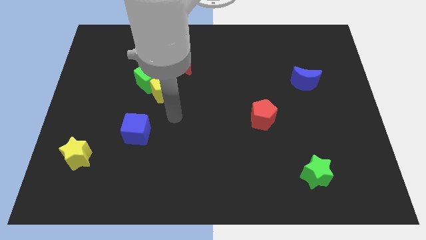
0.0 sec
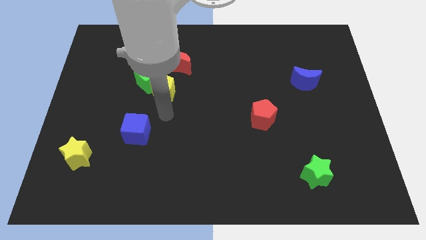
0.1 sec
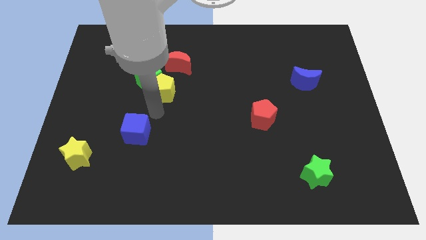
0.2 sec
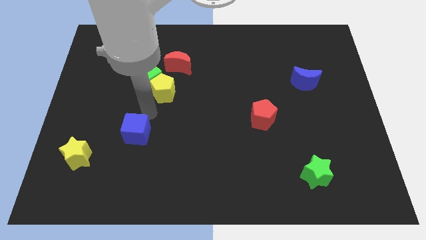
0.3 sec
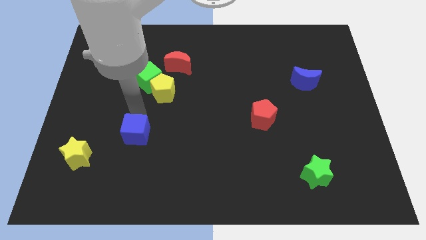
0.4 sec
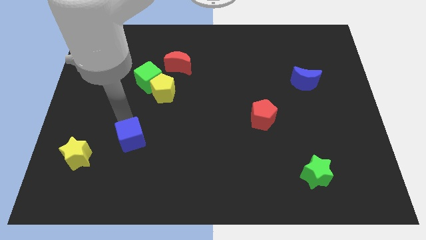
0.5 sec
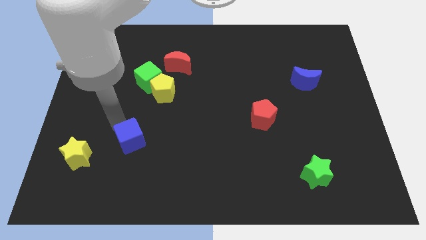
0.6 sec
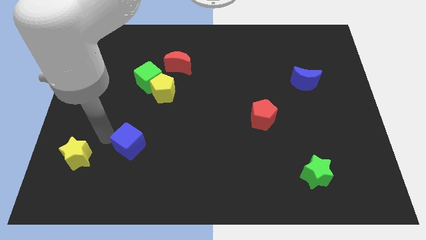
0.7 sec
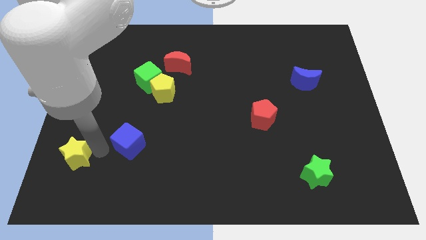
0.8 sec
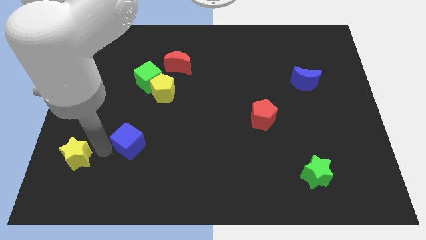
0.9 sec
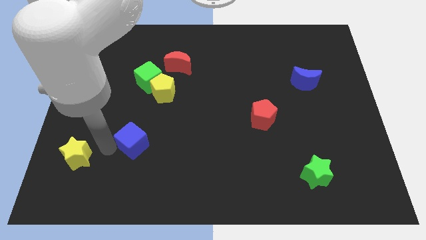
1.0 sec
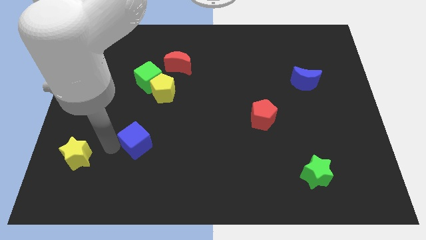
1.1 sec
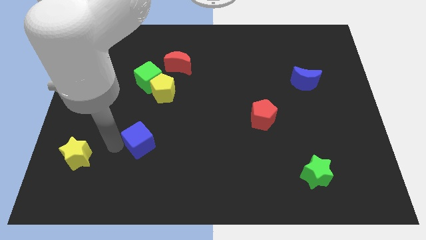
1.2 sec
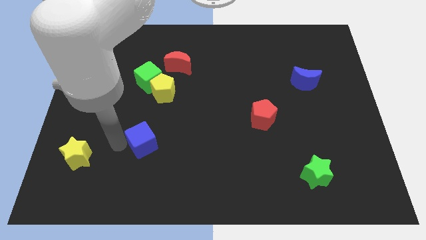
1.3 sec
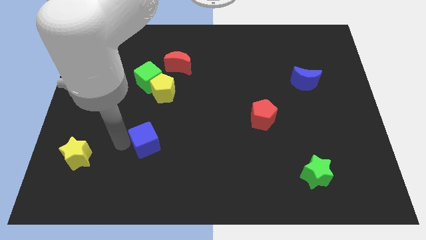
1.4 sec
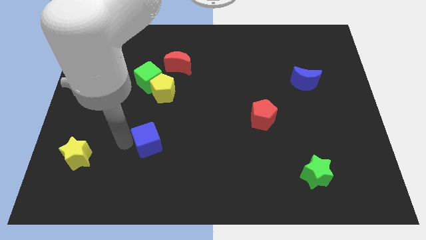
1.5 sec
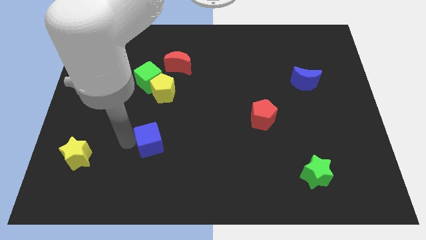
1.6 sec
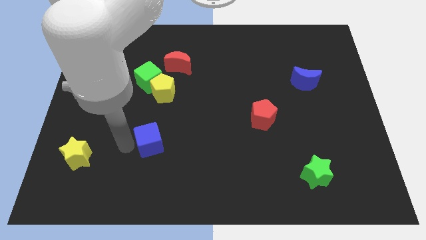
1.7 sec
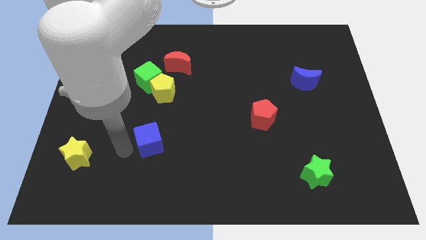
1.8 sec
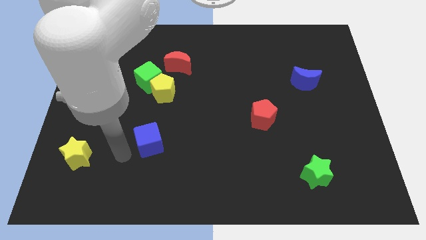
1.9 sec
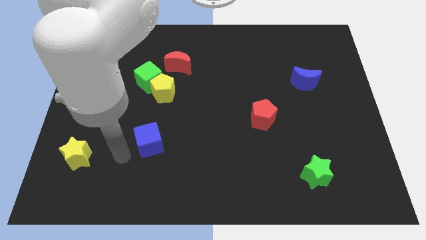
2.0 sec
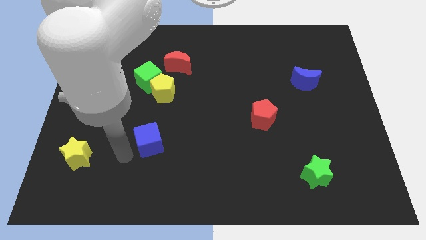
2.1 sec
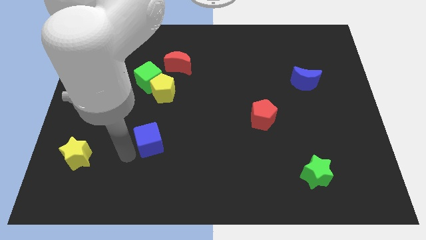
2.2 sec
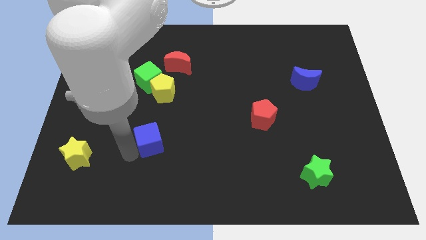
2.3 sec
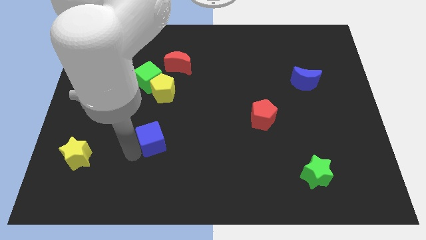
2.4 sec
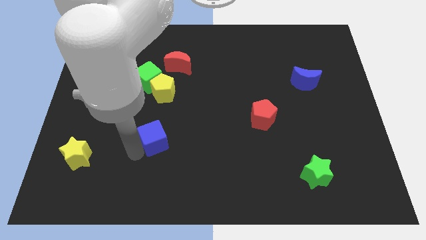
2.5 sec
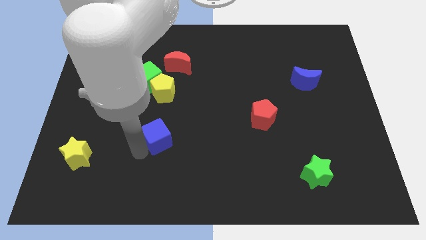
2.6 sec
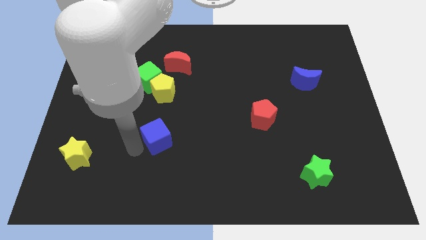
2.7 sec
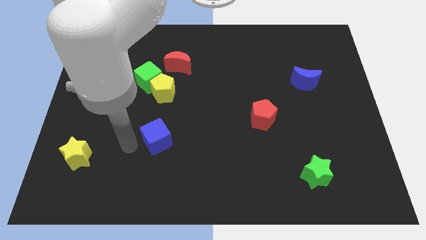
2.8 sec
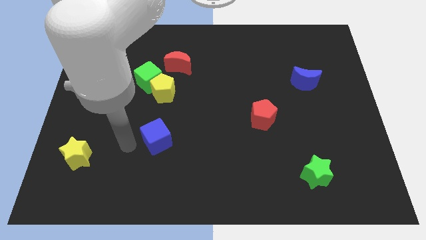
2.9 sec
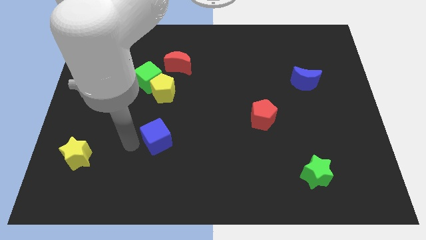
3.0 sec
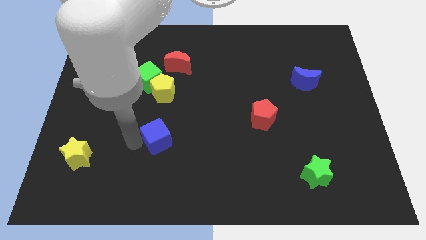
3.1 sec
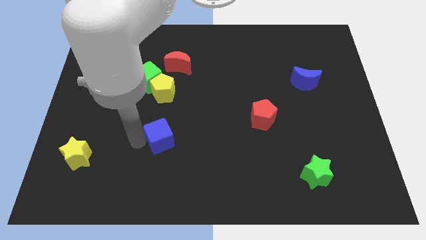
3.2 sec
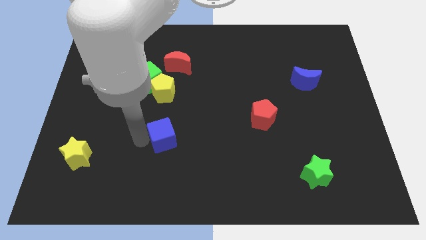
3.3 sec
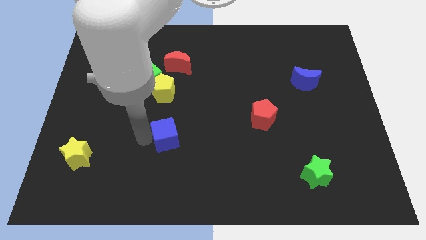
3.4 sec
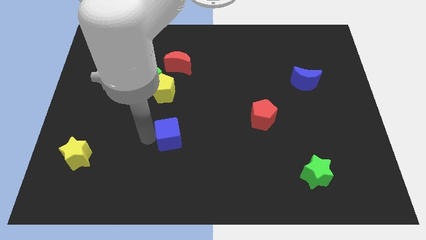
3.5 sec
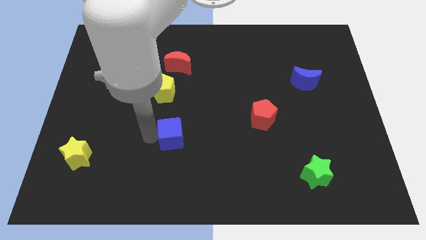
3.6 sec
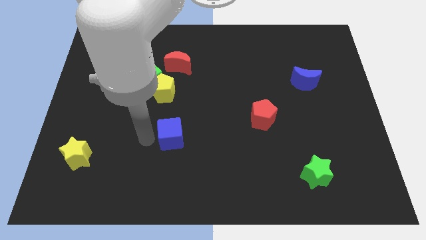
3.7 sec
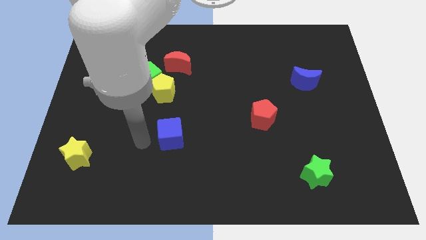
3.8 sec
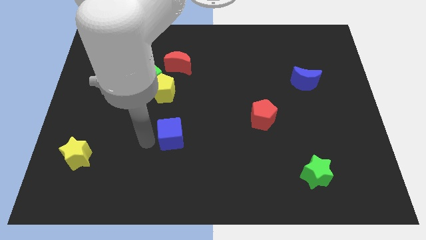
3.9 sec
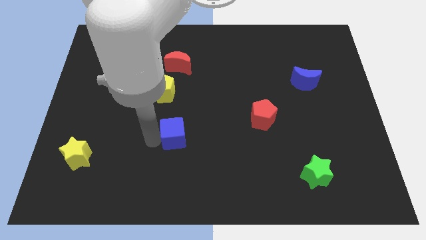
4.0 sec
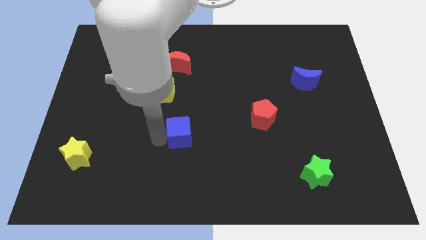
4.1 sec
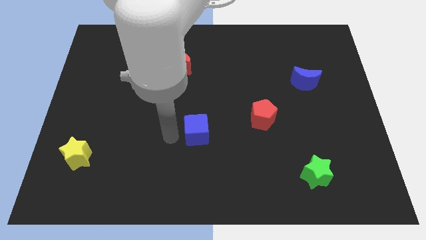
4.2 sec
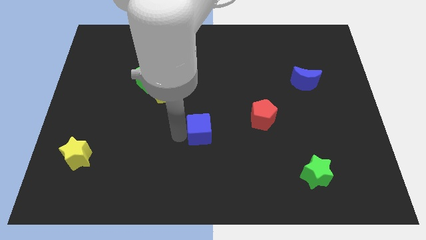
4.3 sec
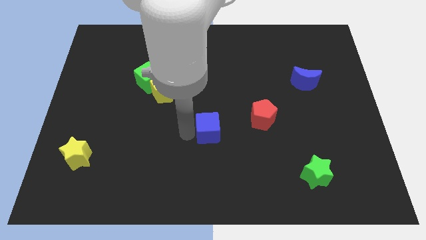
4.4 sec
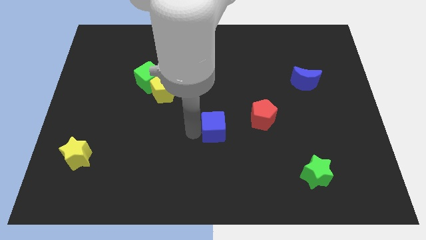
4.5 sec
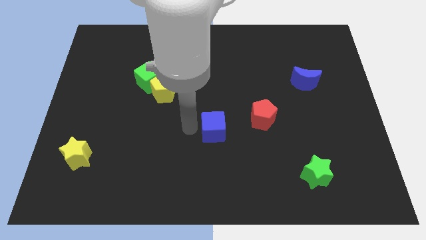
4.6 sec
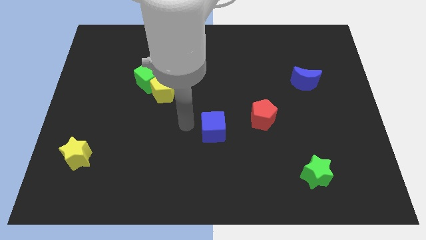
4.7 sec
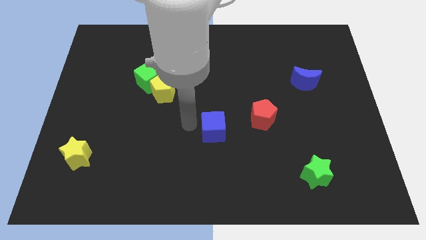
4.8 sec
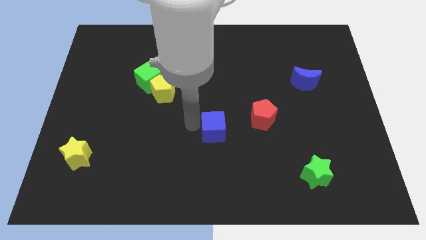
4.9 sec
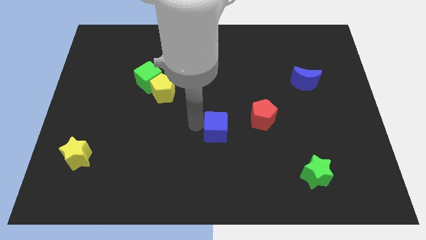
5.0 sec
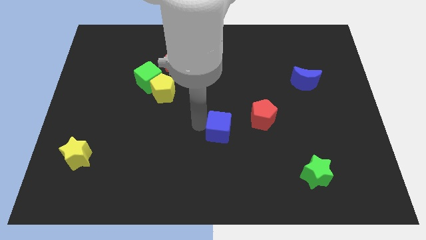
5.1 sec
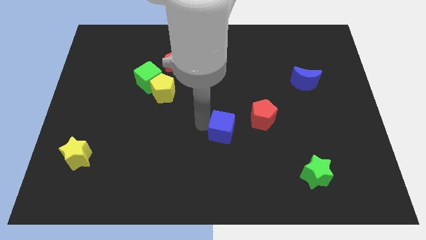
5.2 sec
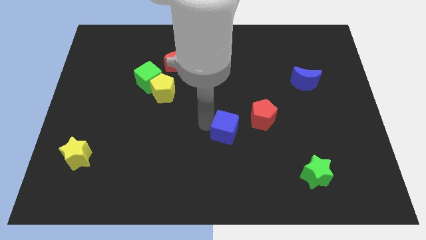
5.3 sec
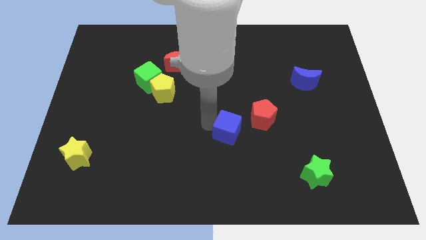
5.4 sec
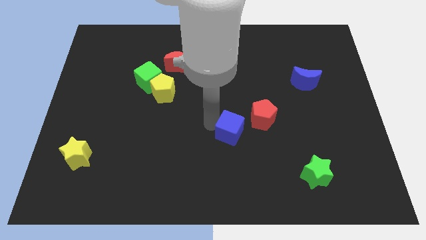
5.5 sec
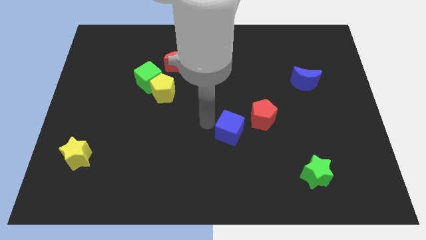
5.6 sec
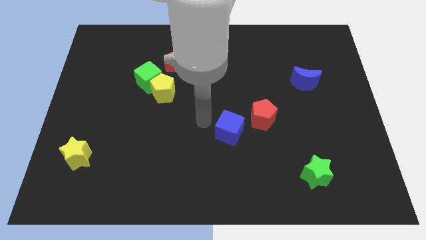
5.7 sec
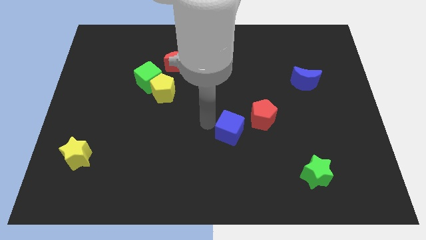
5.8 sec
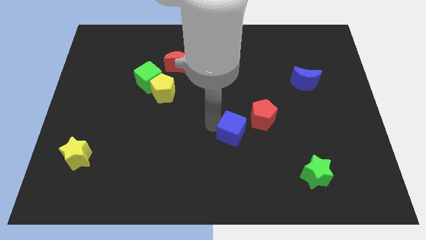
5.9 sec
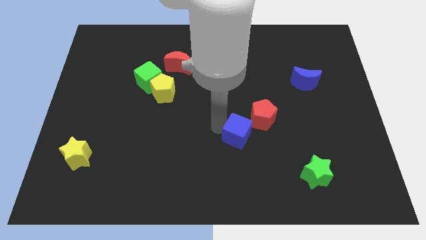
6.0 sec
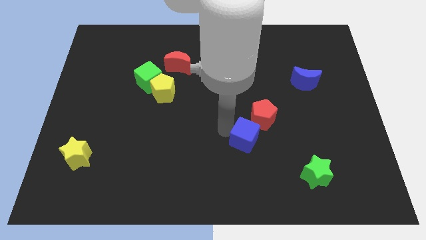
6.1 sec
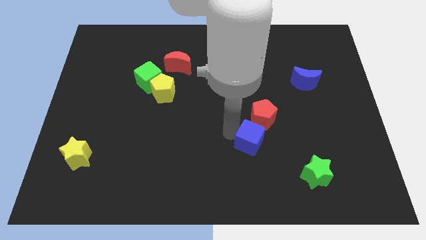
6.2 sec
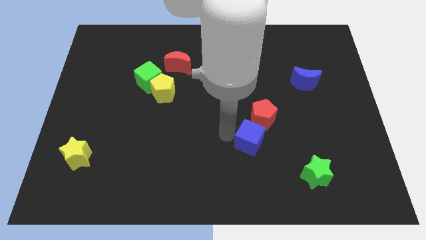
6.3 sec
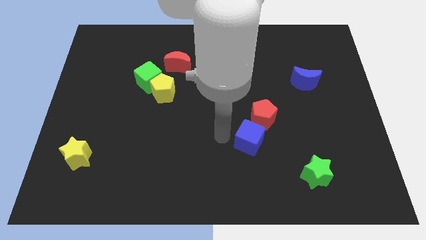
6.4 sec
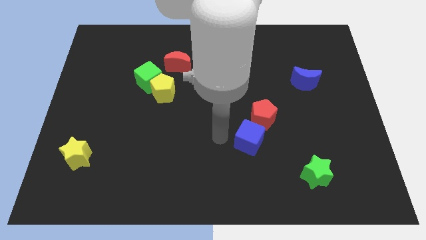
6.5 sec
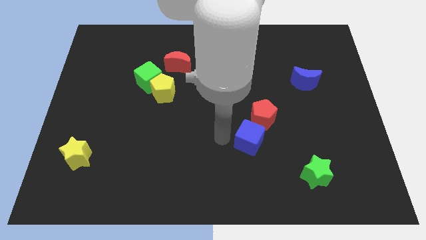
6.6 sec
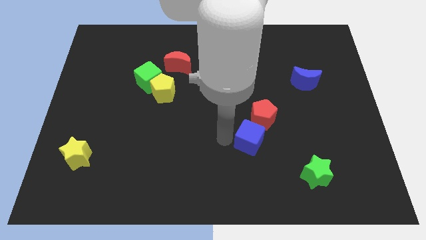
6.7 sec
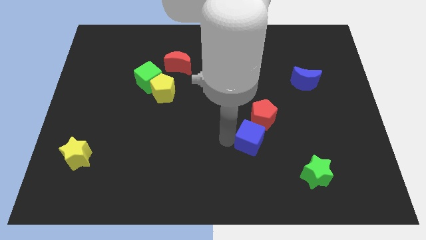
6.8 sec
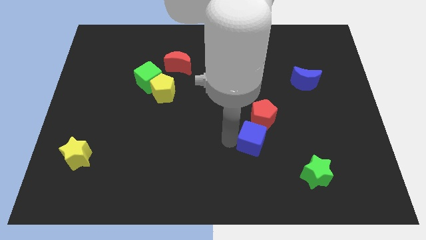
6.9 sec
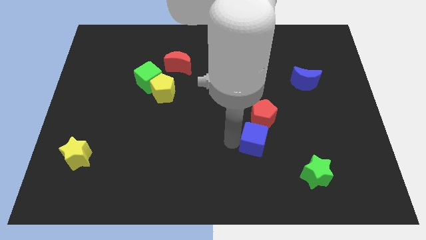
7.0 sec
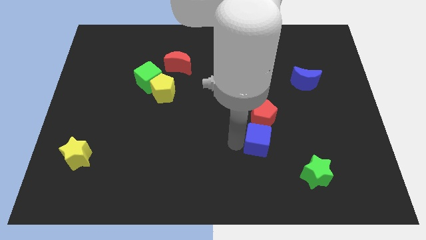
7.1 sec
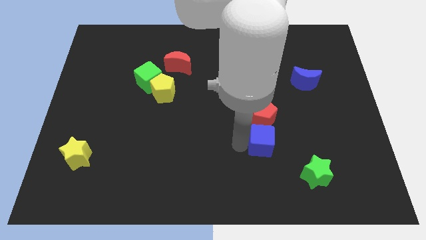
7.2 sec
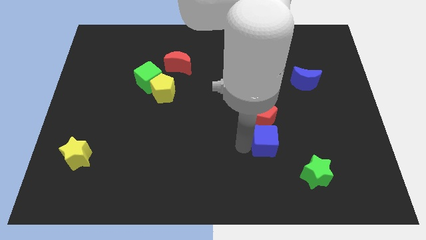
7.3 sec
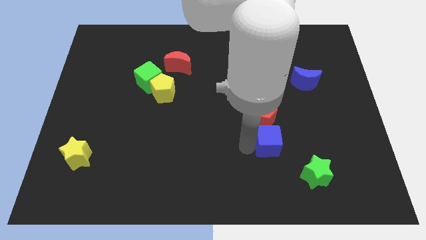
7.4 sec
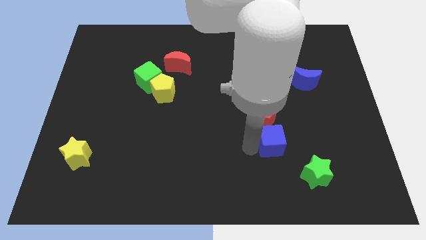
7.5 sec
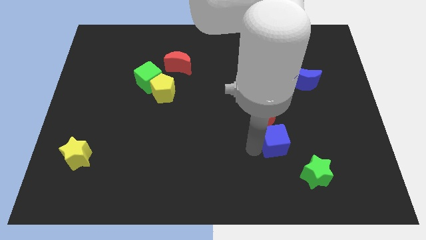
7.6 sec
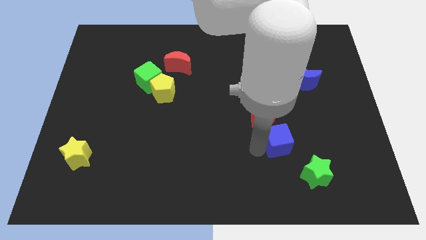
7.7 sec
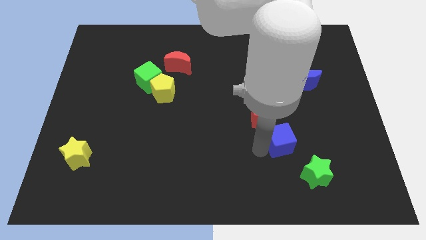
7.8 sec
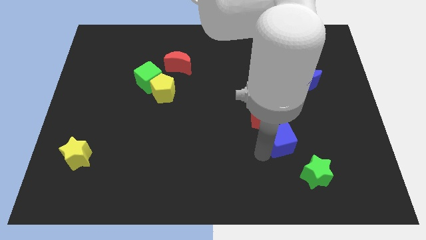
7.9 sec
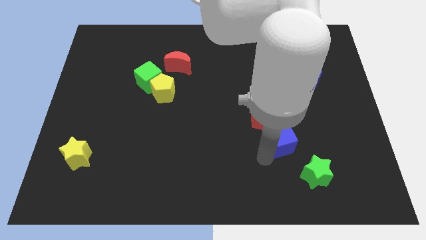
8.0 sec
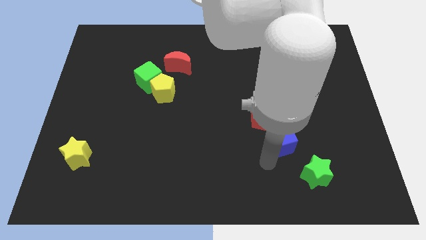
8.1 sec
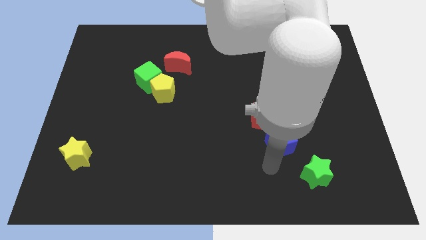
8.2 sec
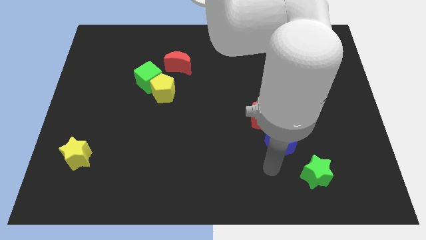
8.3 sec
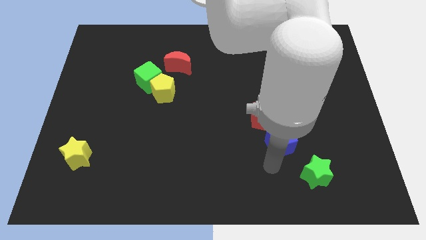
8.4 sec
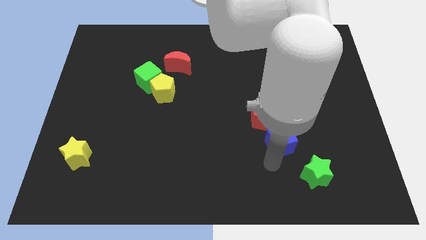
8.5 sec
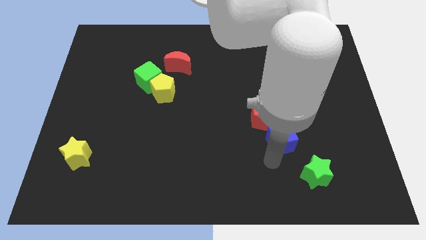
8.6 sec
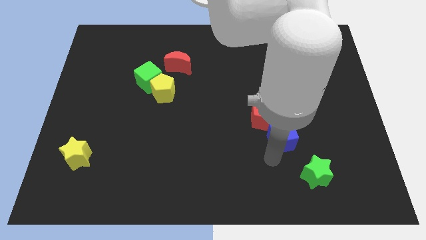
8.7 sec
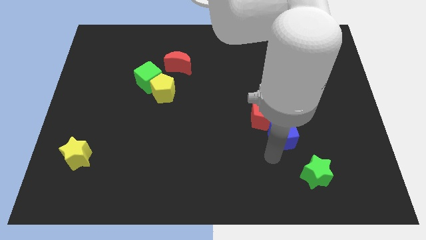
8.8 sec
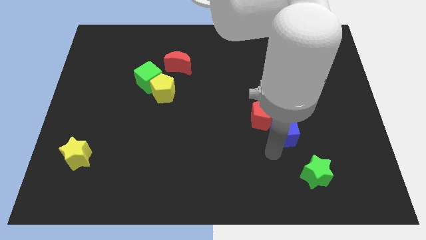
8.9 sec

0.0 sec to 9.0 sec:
slide the blue cube to the right side of the red pentagon
